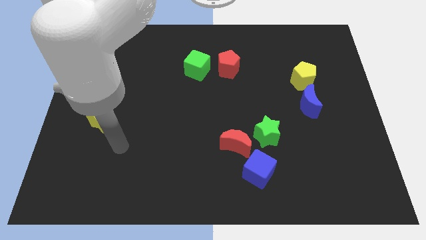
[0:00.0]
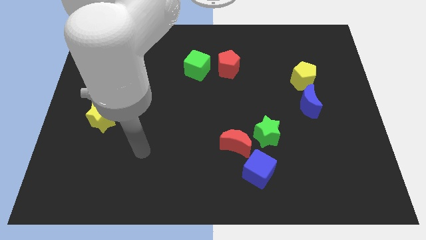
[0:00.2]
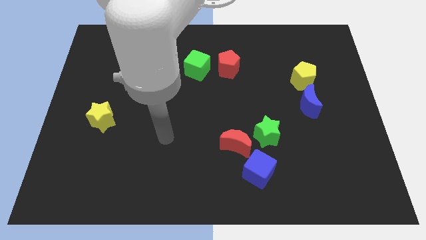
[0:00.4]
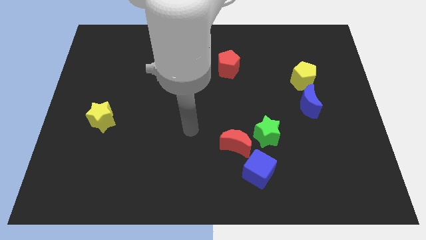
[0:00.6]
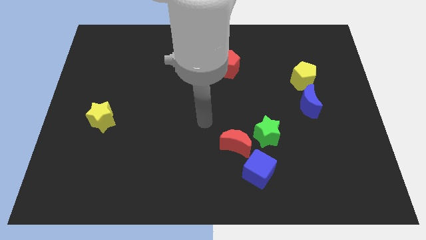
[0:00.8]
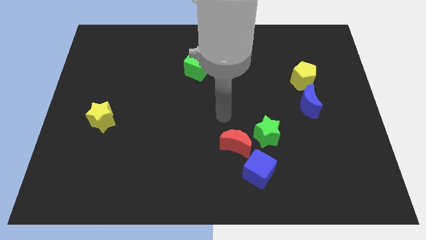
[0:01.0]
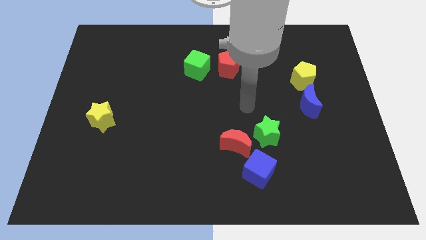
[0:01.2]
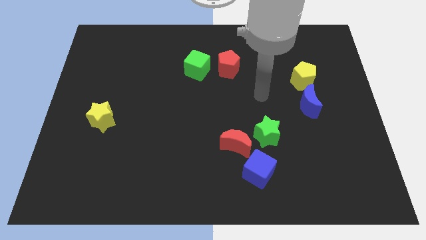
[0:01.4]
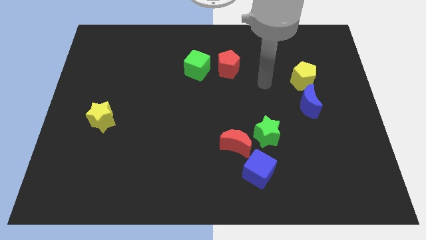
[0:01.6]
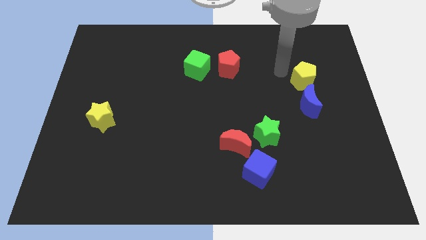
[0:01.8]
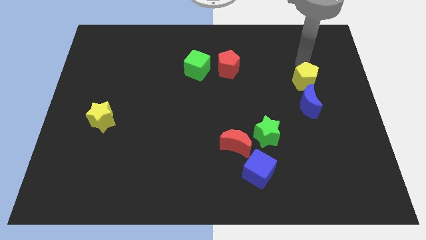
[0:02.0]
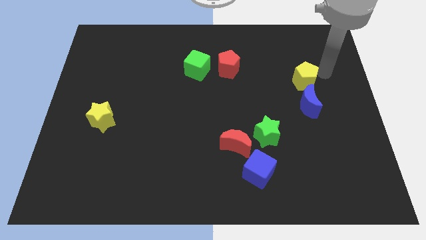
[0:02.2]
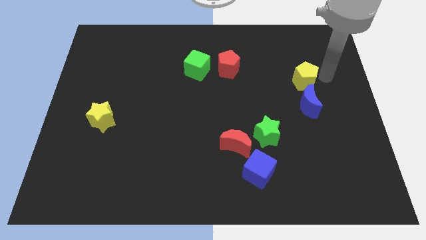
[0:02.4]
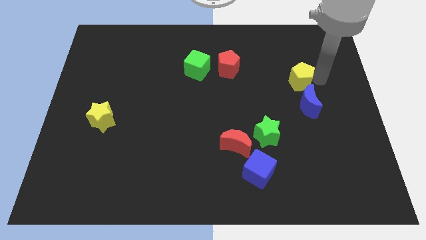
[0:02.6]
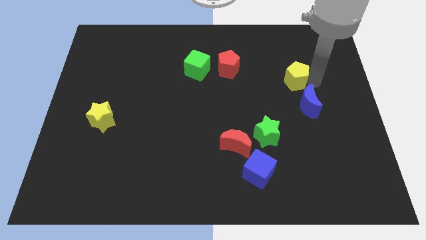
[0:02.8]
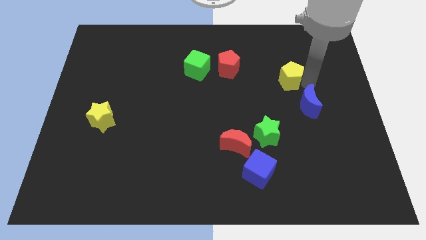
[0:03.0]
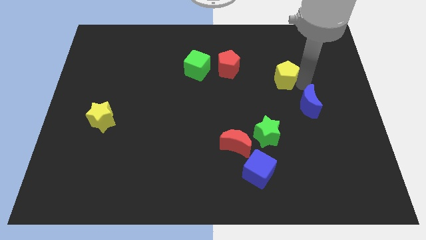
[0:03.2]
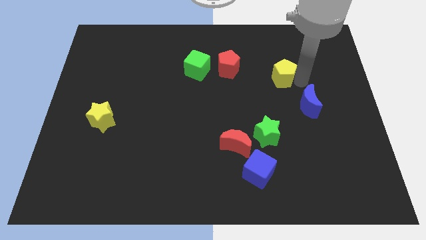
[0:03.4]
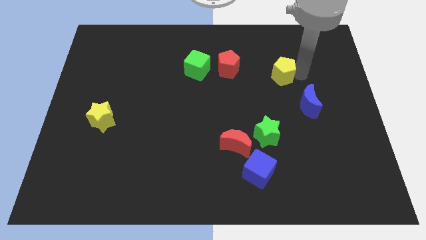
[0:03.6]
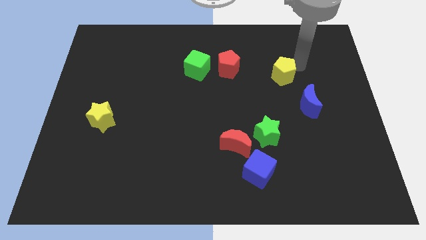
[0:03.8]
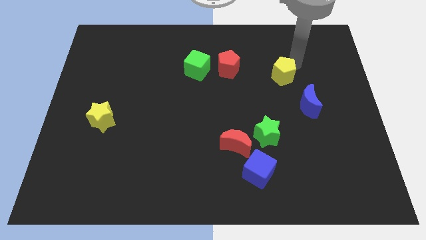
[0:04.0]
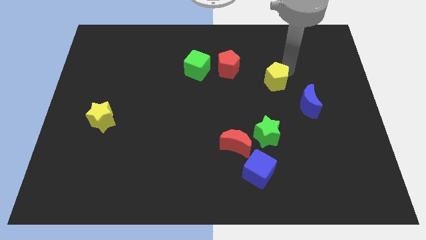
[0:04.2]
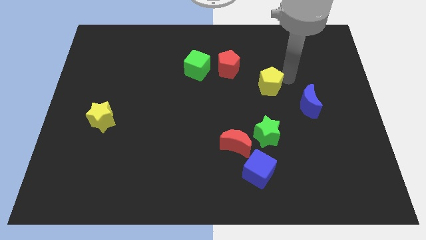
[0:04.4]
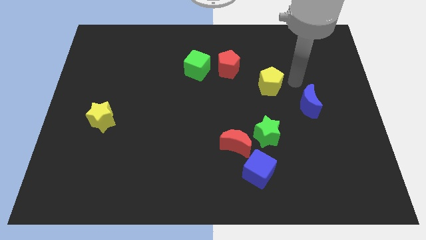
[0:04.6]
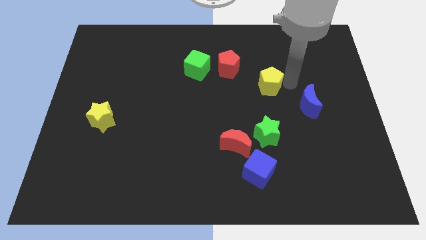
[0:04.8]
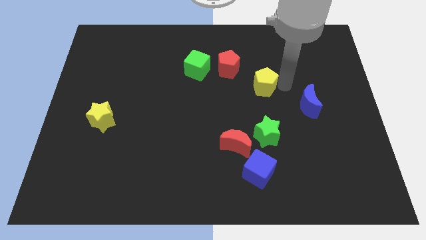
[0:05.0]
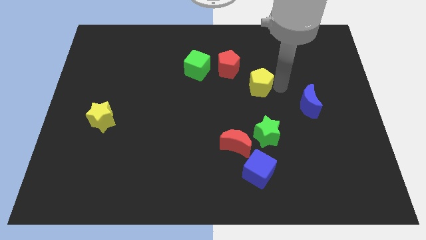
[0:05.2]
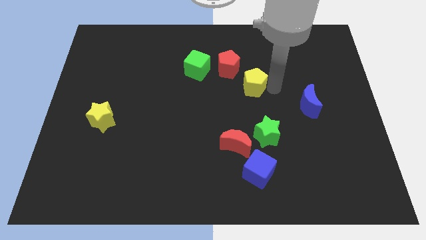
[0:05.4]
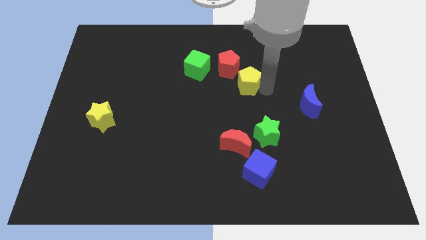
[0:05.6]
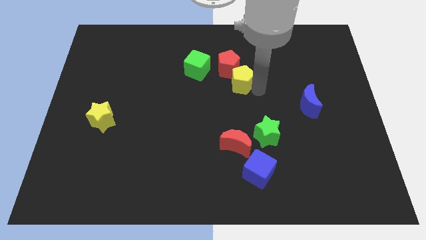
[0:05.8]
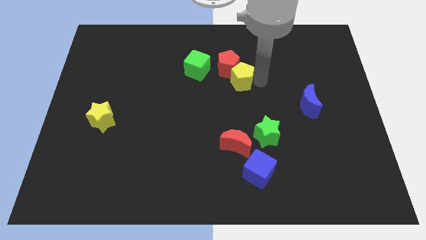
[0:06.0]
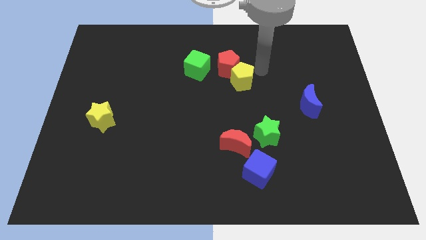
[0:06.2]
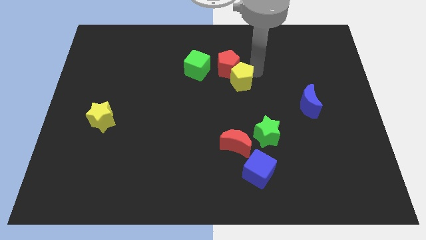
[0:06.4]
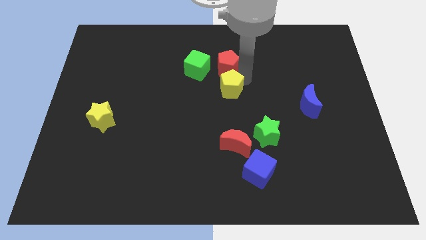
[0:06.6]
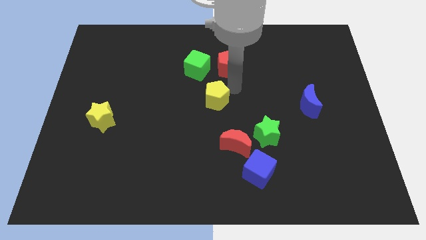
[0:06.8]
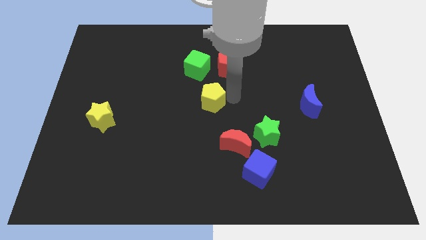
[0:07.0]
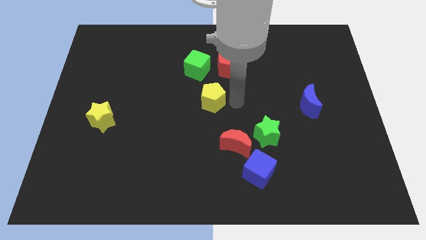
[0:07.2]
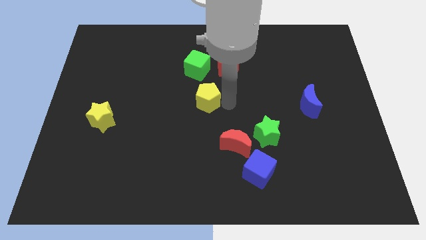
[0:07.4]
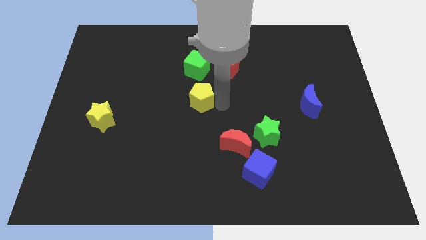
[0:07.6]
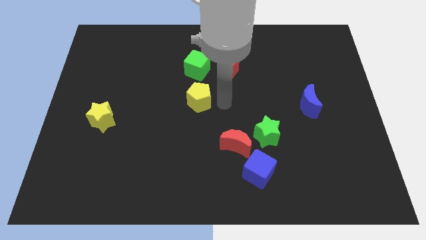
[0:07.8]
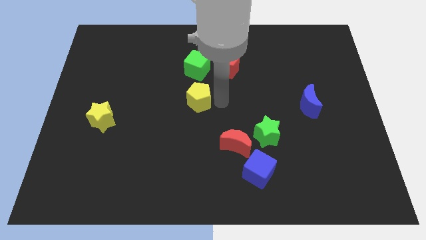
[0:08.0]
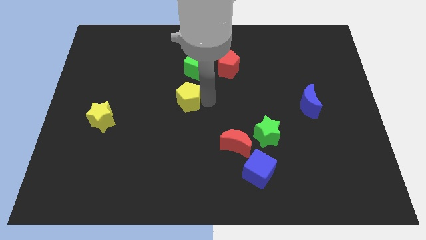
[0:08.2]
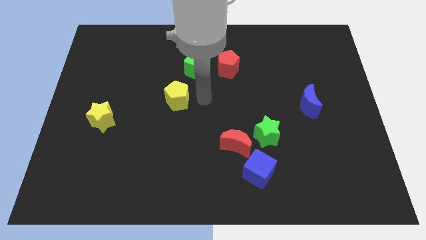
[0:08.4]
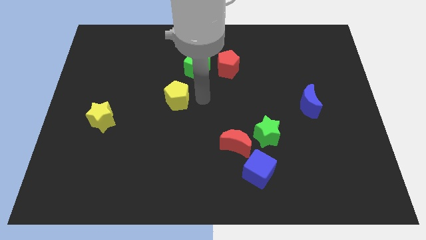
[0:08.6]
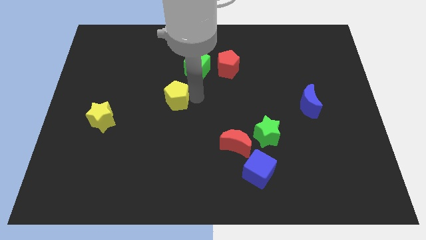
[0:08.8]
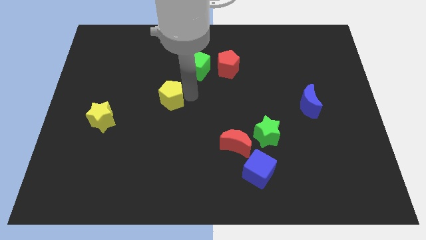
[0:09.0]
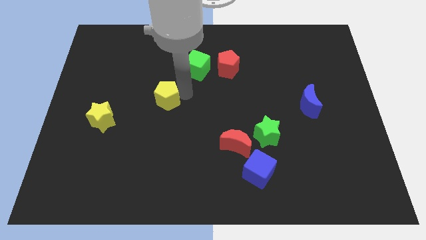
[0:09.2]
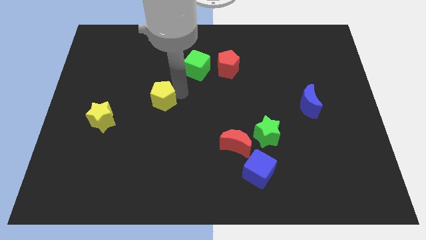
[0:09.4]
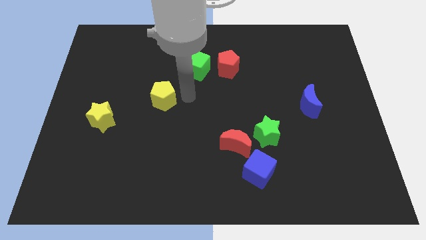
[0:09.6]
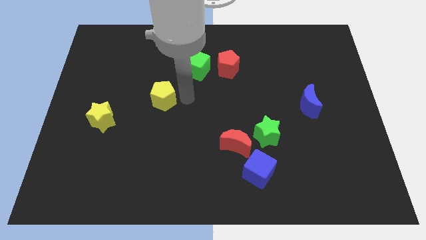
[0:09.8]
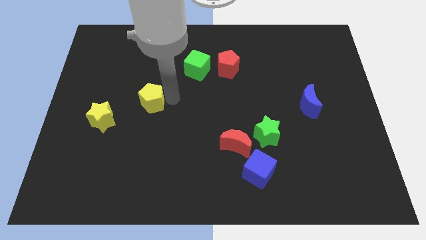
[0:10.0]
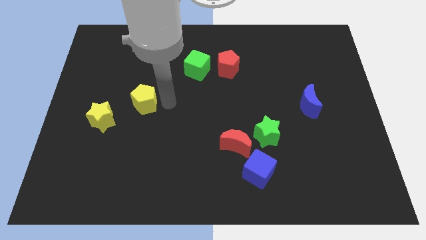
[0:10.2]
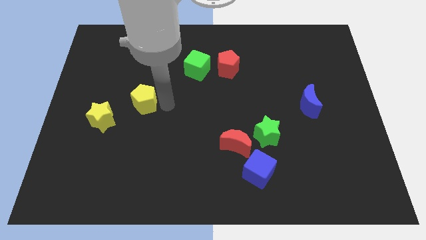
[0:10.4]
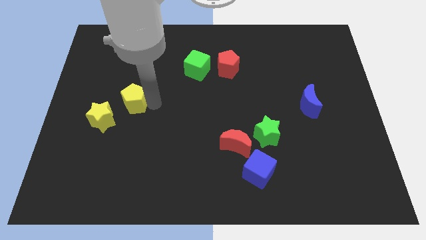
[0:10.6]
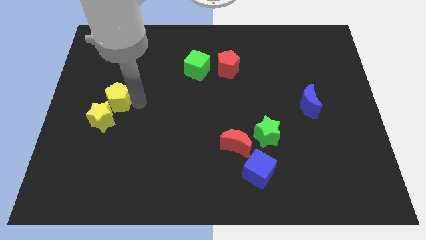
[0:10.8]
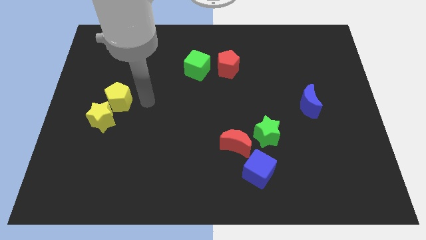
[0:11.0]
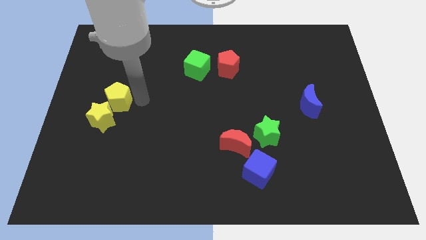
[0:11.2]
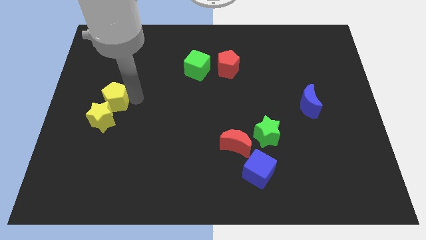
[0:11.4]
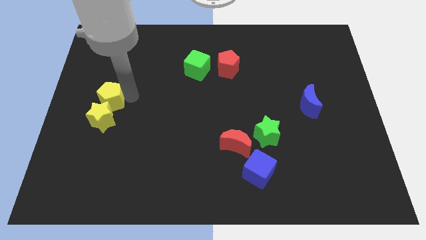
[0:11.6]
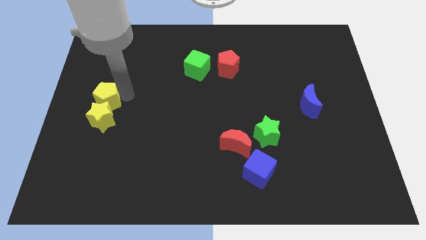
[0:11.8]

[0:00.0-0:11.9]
move the yellow pentagon to the center left
